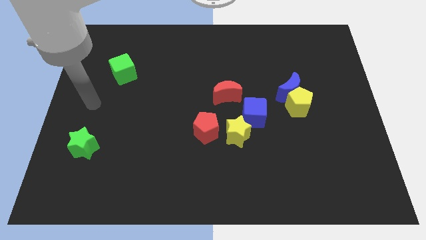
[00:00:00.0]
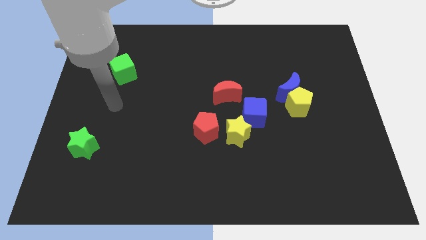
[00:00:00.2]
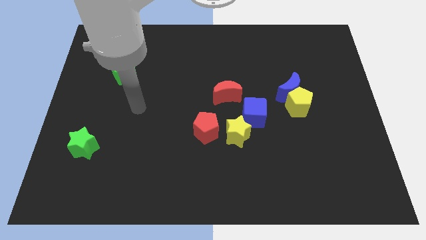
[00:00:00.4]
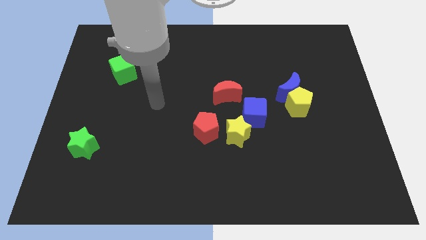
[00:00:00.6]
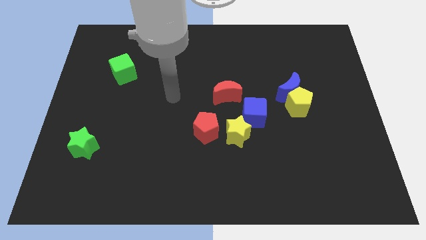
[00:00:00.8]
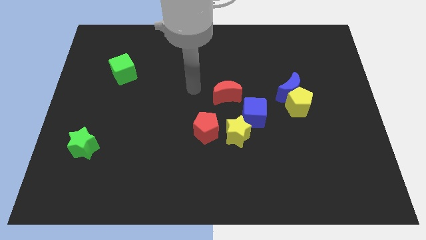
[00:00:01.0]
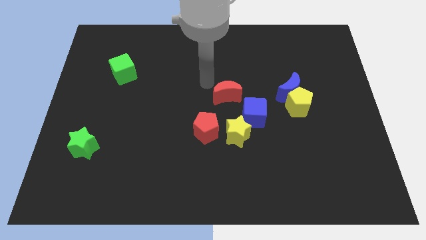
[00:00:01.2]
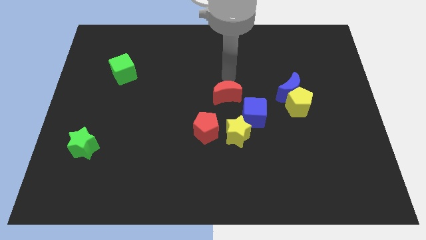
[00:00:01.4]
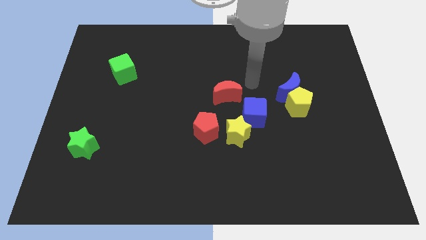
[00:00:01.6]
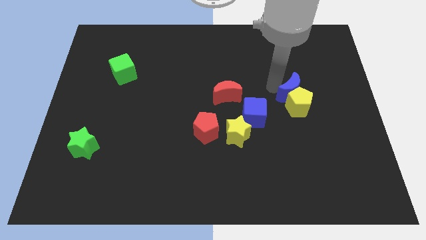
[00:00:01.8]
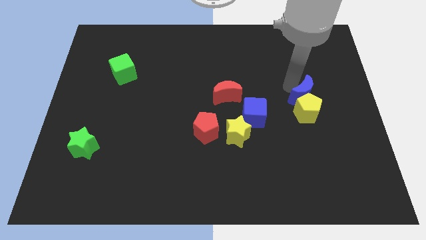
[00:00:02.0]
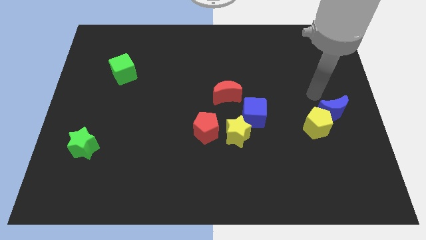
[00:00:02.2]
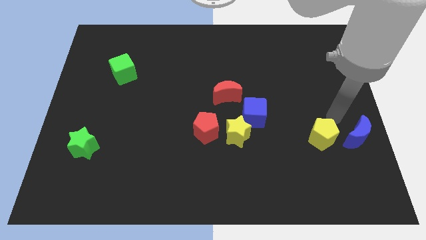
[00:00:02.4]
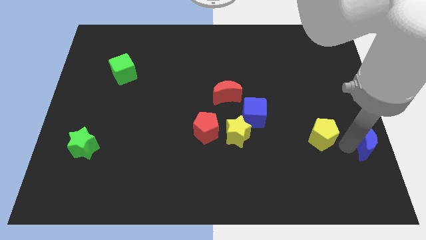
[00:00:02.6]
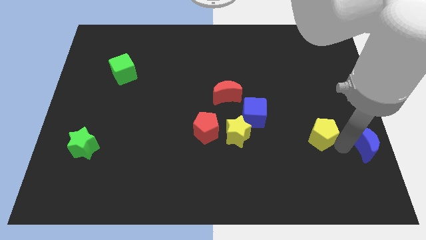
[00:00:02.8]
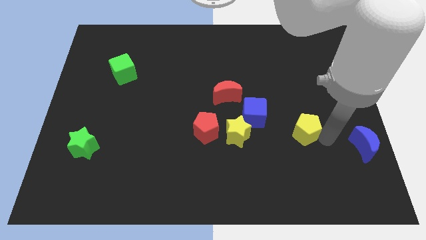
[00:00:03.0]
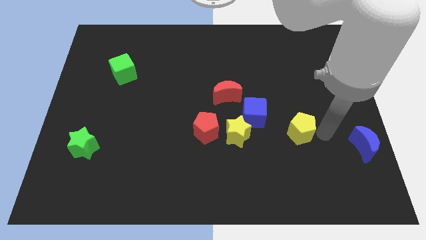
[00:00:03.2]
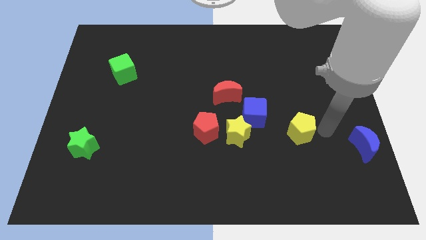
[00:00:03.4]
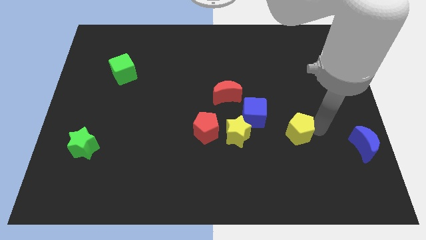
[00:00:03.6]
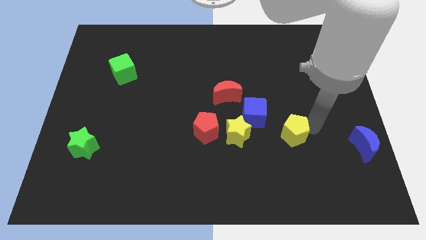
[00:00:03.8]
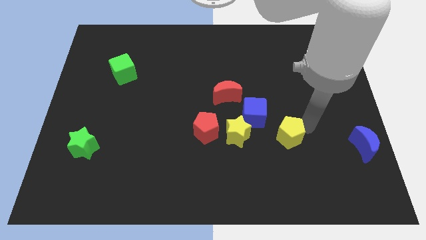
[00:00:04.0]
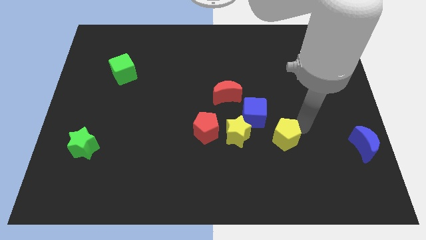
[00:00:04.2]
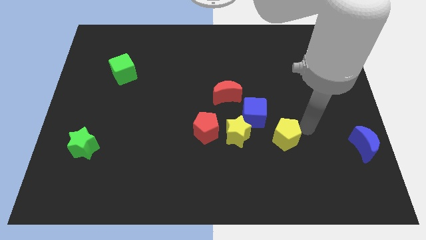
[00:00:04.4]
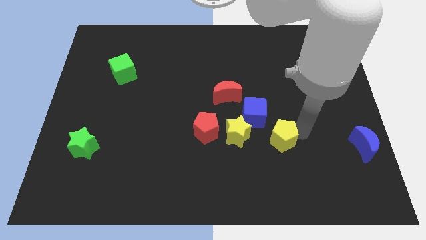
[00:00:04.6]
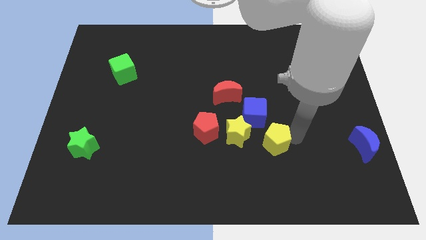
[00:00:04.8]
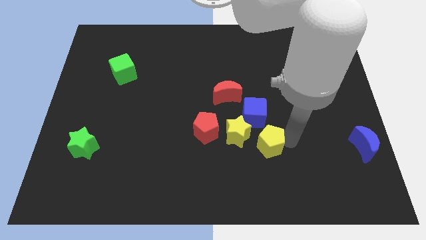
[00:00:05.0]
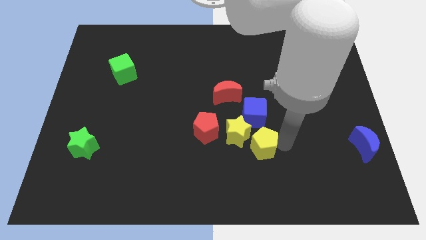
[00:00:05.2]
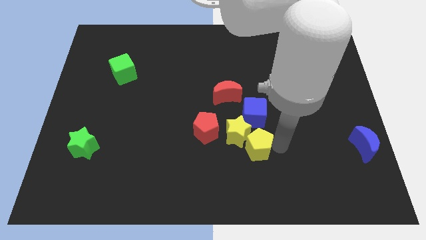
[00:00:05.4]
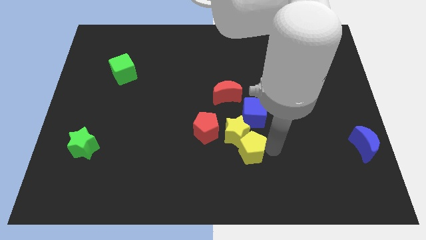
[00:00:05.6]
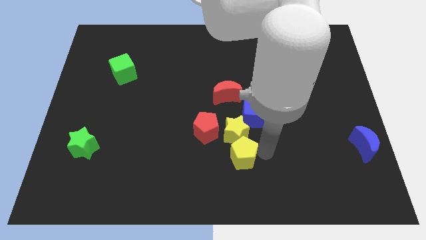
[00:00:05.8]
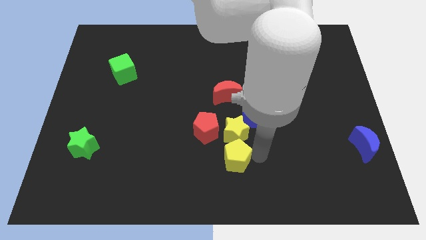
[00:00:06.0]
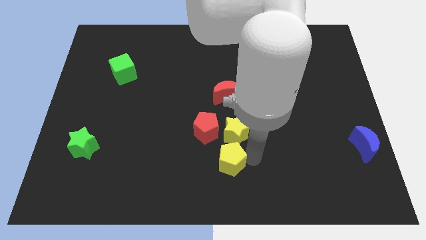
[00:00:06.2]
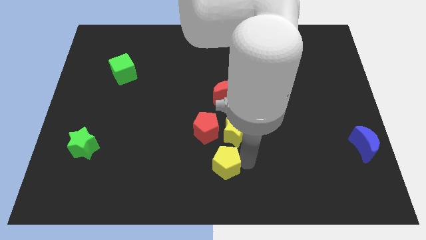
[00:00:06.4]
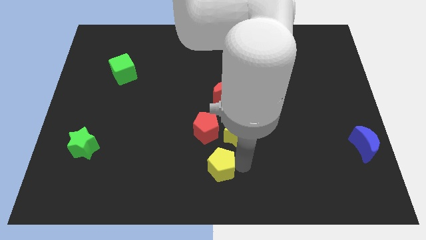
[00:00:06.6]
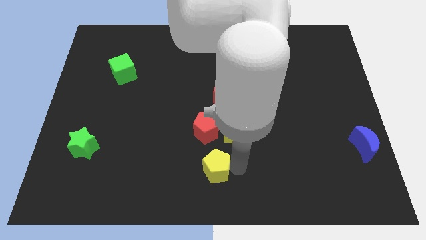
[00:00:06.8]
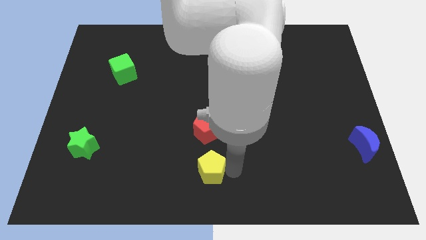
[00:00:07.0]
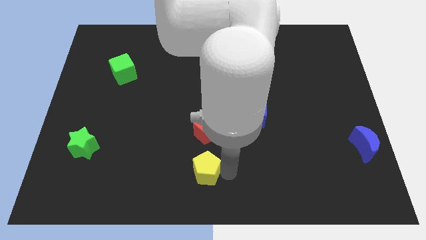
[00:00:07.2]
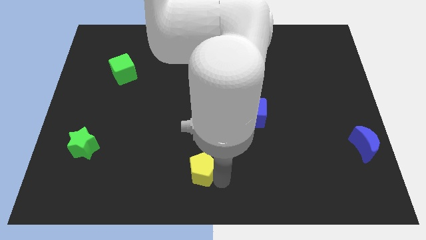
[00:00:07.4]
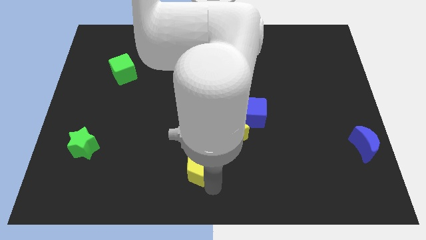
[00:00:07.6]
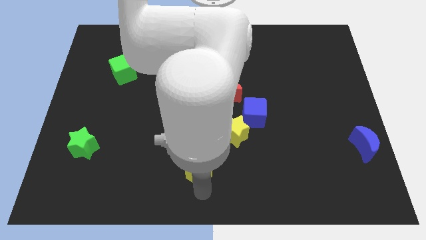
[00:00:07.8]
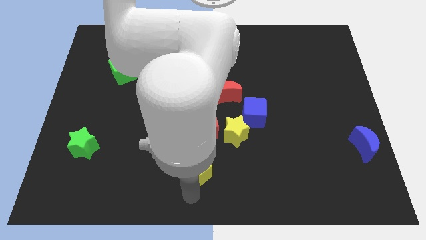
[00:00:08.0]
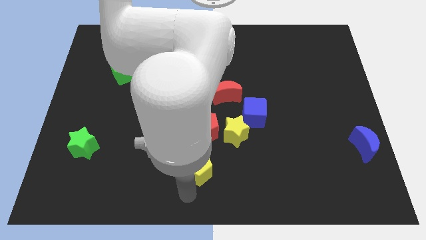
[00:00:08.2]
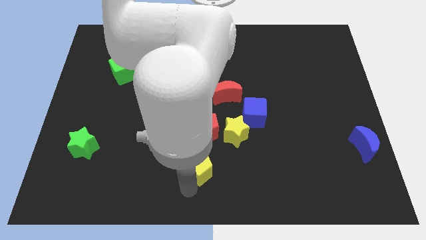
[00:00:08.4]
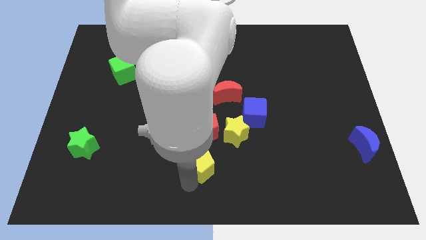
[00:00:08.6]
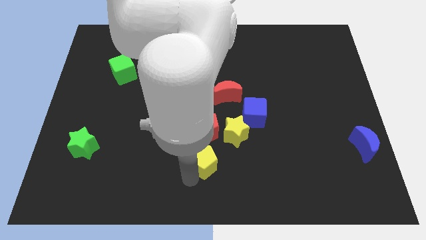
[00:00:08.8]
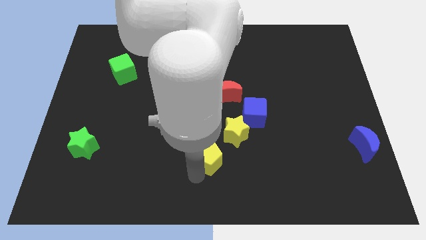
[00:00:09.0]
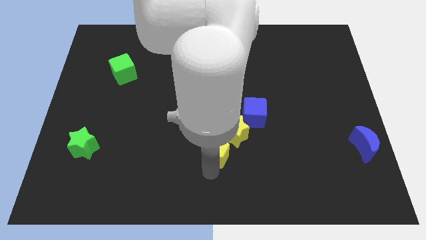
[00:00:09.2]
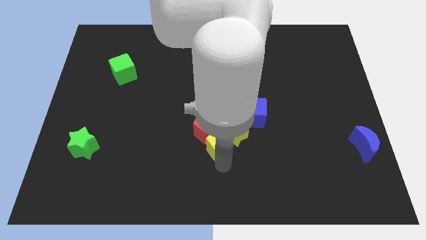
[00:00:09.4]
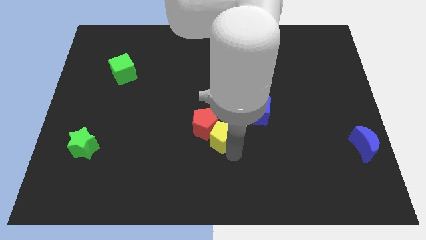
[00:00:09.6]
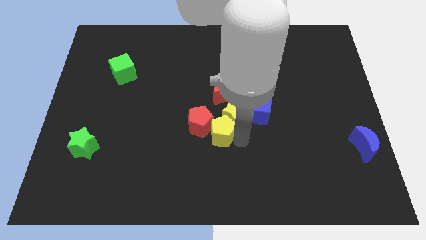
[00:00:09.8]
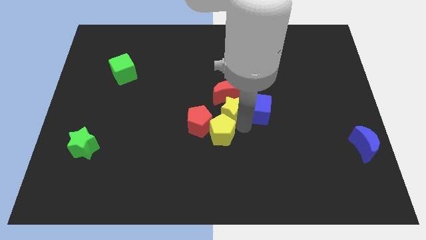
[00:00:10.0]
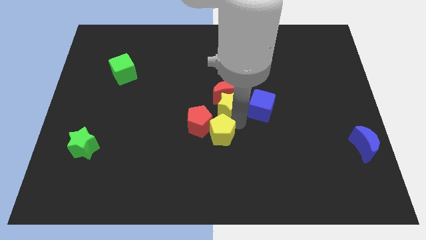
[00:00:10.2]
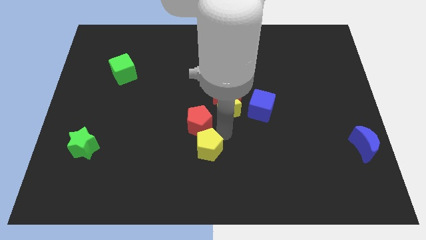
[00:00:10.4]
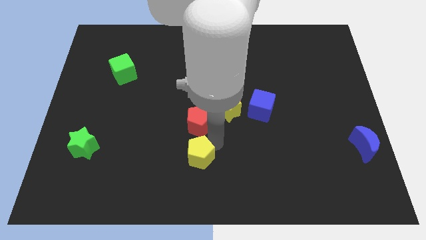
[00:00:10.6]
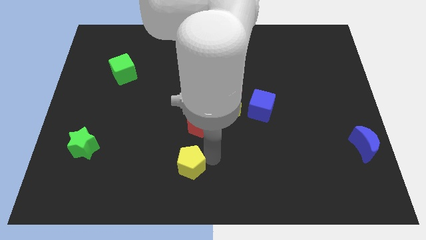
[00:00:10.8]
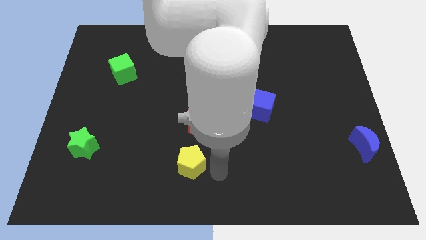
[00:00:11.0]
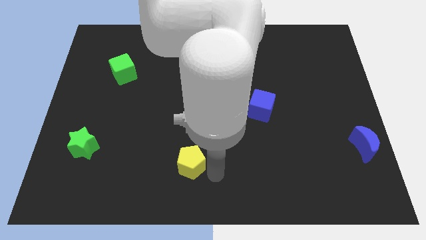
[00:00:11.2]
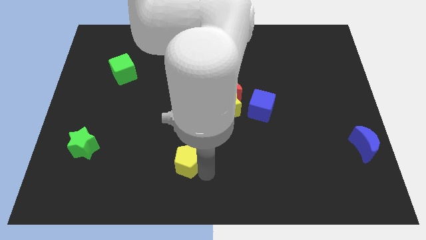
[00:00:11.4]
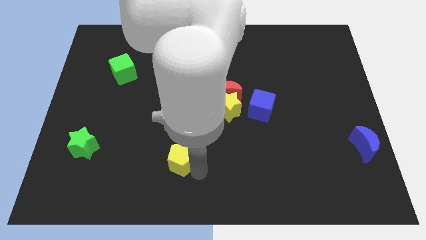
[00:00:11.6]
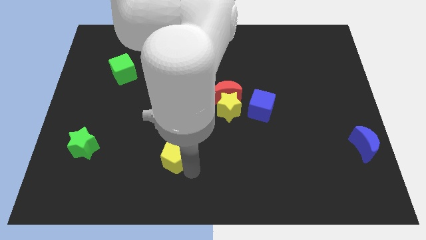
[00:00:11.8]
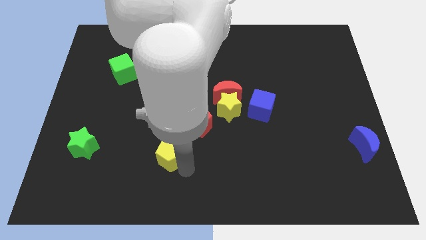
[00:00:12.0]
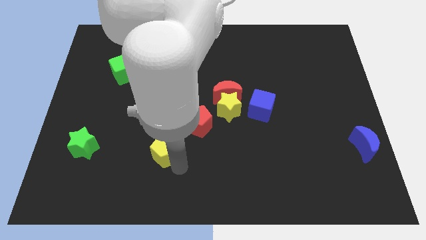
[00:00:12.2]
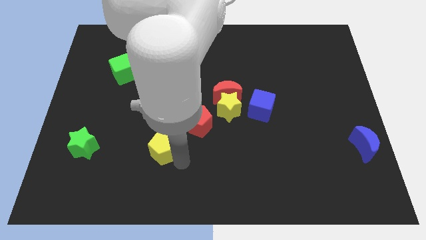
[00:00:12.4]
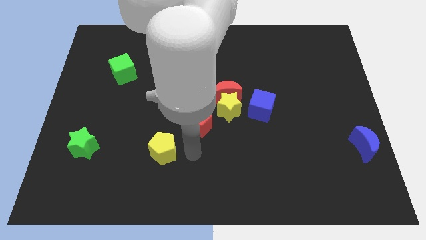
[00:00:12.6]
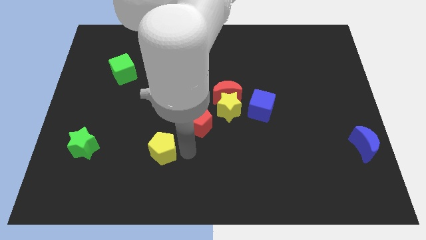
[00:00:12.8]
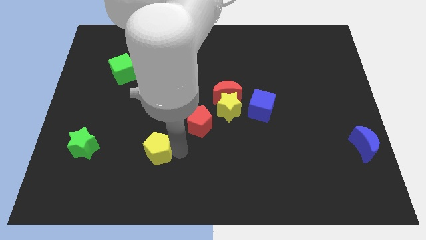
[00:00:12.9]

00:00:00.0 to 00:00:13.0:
slide the yellow pentagon to the right side of the green star

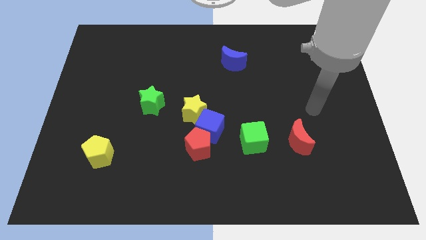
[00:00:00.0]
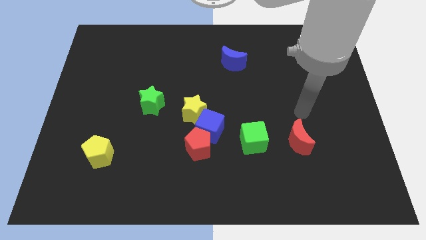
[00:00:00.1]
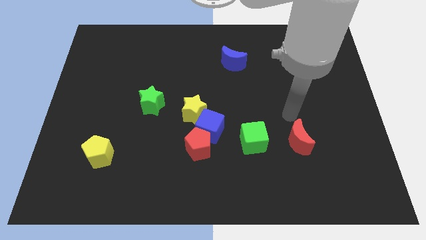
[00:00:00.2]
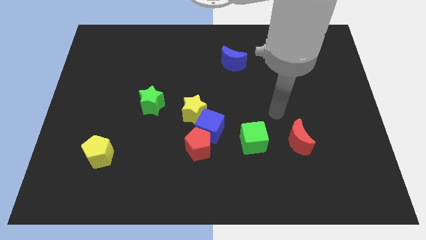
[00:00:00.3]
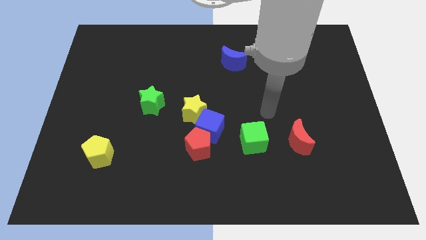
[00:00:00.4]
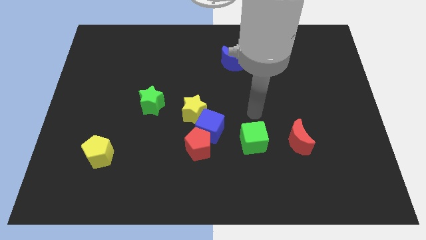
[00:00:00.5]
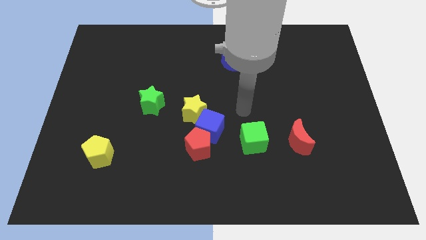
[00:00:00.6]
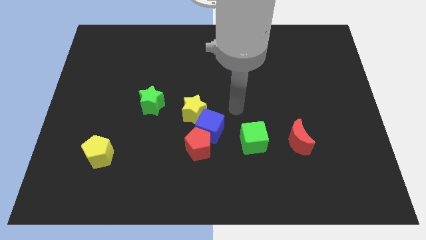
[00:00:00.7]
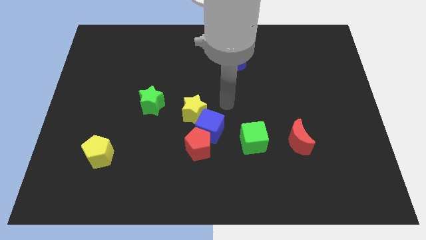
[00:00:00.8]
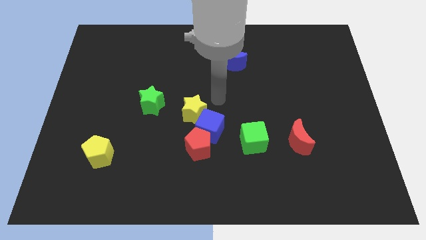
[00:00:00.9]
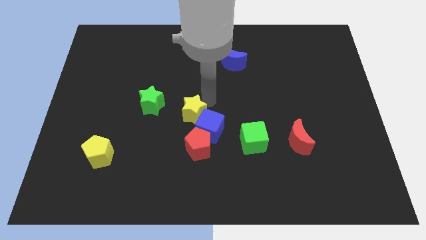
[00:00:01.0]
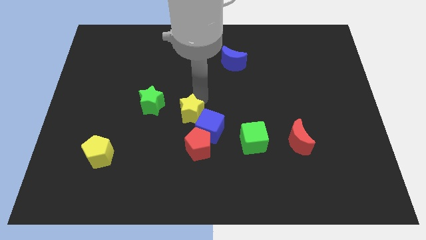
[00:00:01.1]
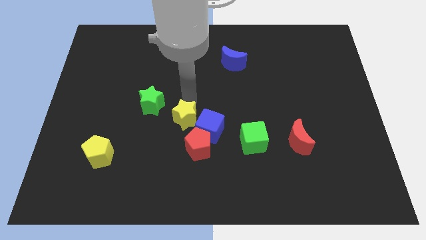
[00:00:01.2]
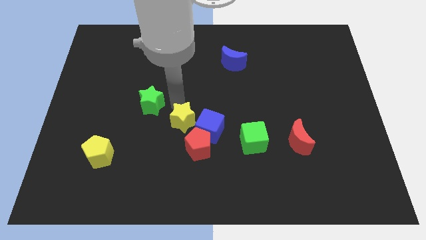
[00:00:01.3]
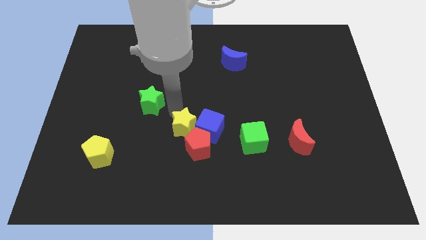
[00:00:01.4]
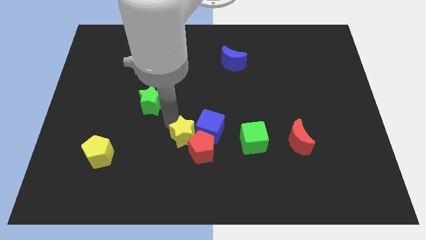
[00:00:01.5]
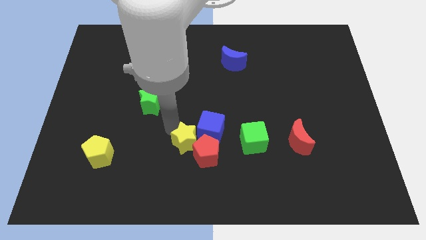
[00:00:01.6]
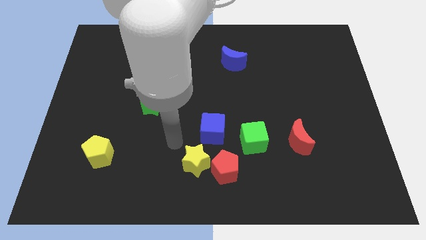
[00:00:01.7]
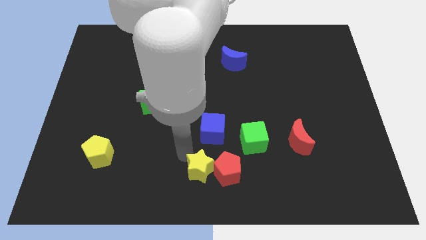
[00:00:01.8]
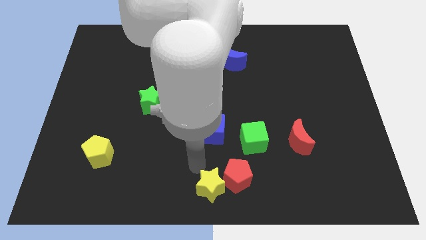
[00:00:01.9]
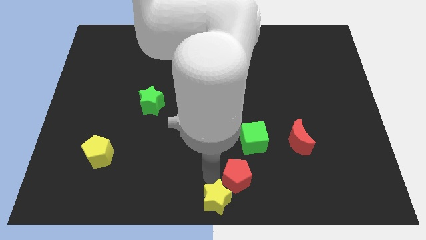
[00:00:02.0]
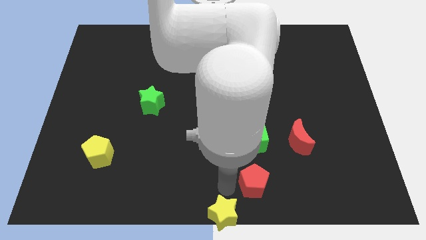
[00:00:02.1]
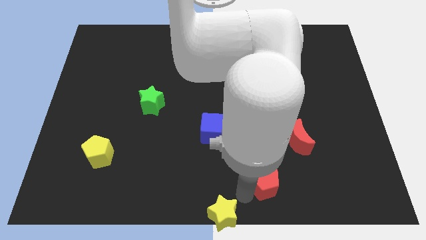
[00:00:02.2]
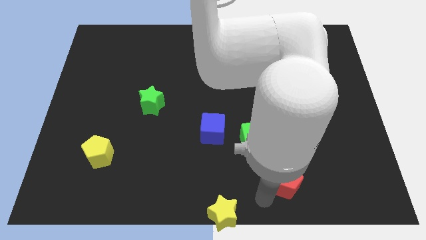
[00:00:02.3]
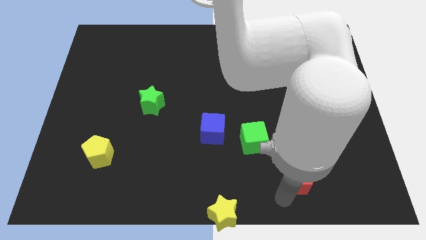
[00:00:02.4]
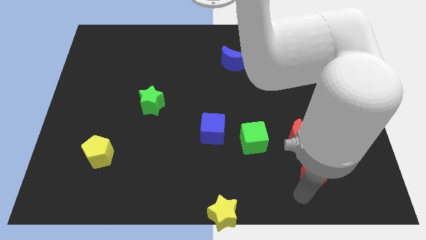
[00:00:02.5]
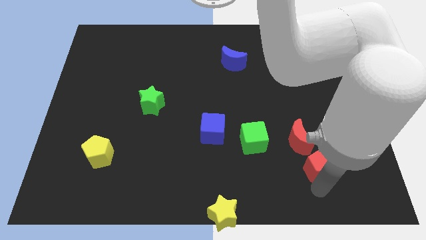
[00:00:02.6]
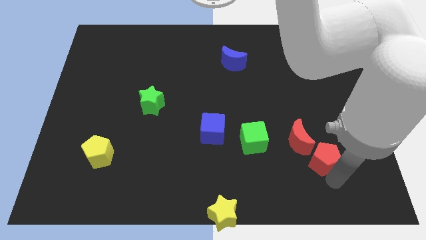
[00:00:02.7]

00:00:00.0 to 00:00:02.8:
slide the red pentagon just right of the red moon
